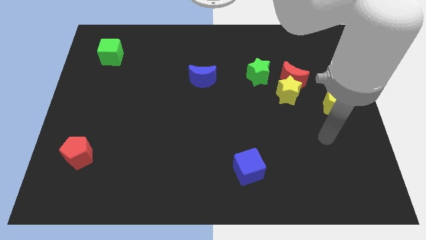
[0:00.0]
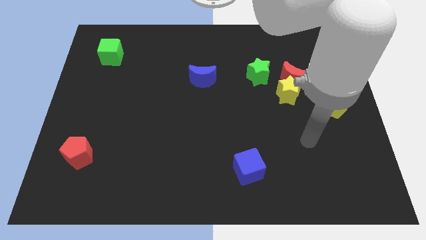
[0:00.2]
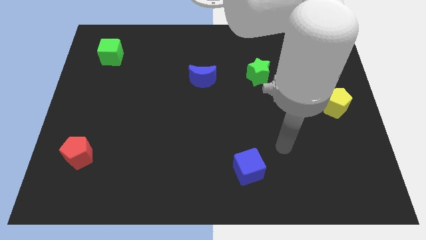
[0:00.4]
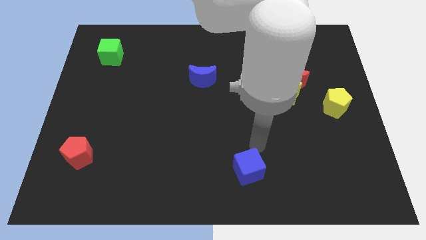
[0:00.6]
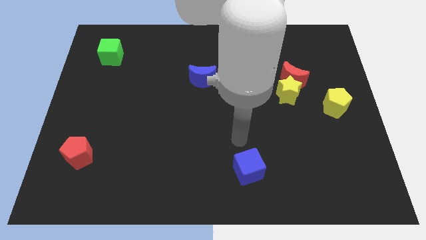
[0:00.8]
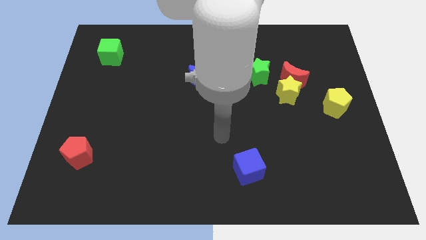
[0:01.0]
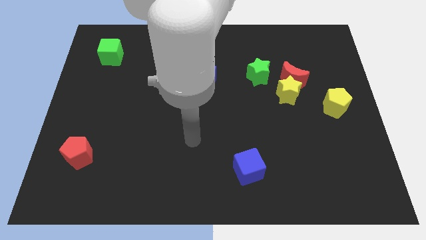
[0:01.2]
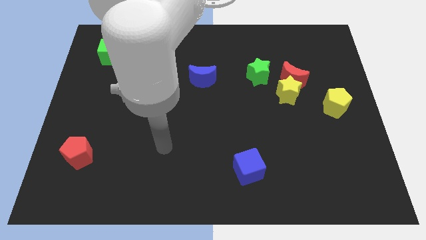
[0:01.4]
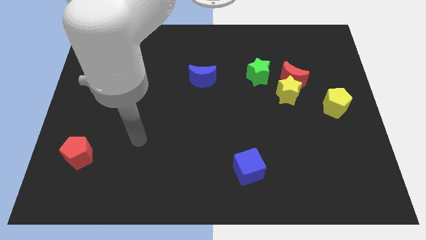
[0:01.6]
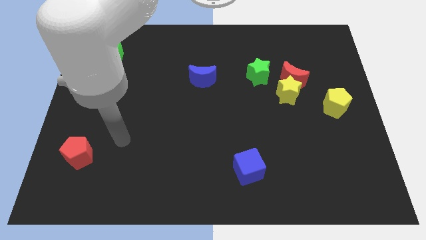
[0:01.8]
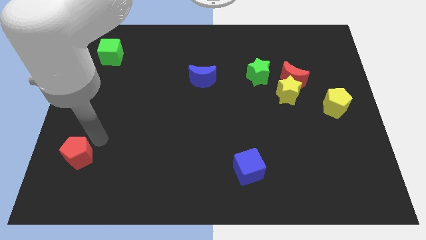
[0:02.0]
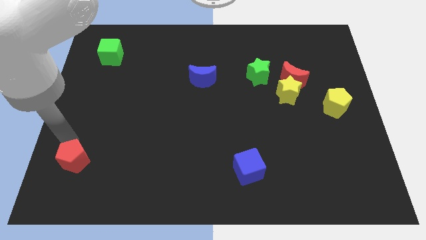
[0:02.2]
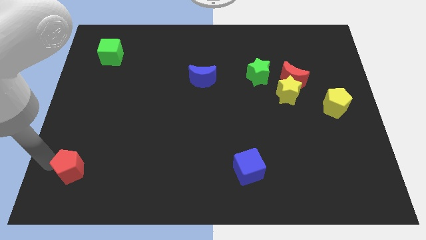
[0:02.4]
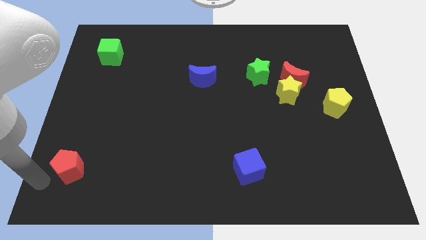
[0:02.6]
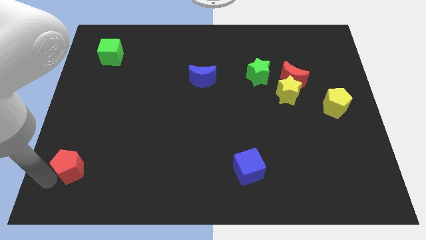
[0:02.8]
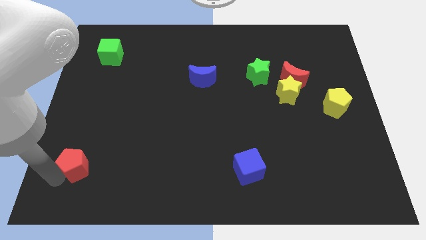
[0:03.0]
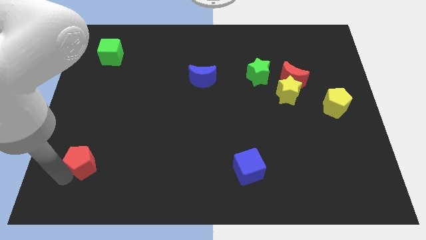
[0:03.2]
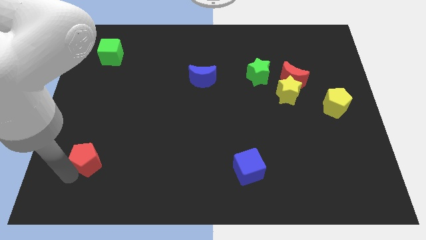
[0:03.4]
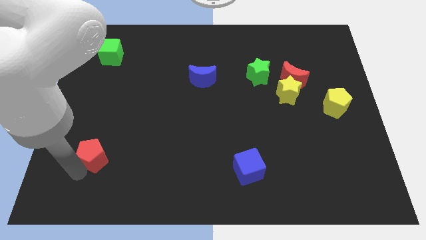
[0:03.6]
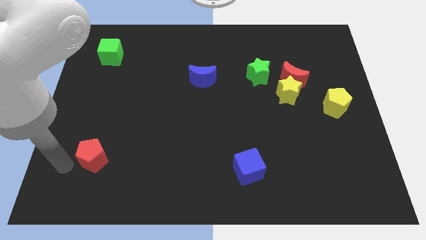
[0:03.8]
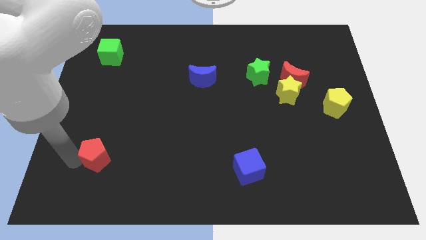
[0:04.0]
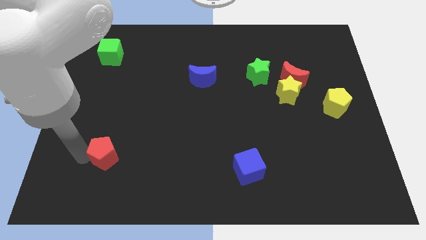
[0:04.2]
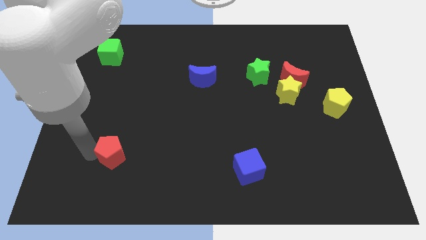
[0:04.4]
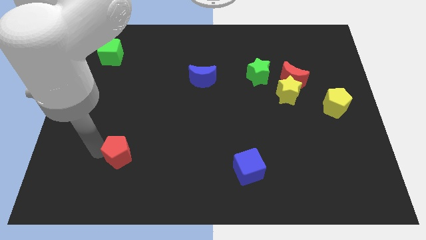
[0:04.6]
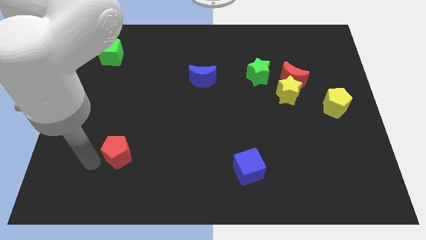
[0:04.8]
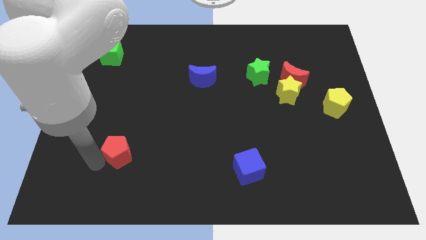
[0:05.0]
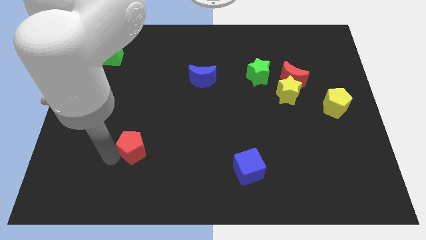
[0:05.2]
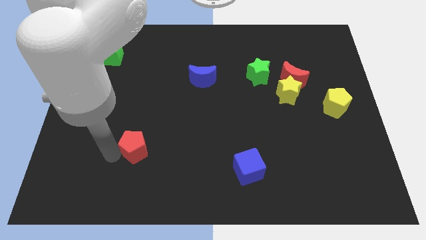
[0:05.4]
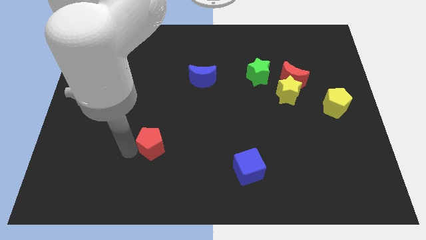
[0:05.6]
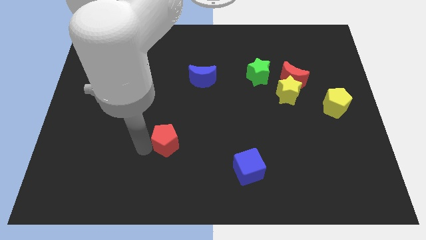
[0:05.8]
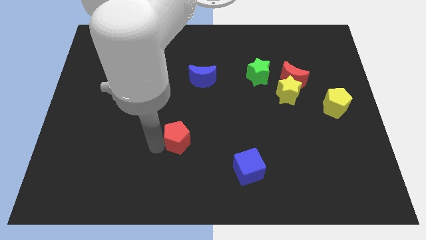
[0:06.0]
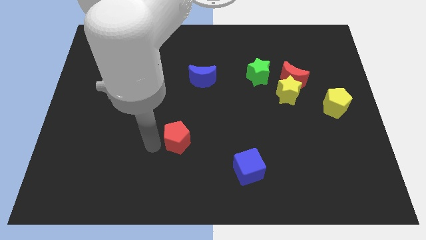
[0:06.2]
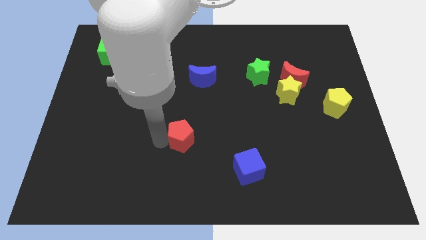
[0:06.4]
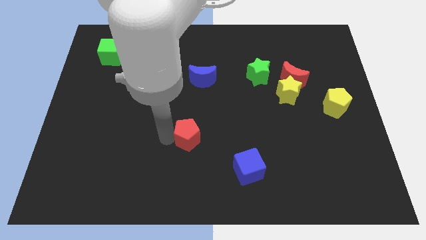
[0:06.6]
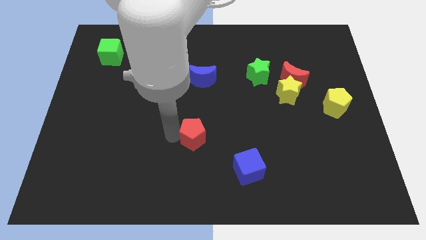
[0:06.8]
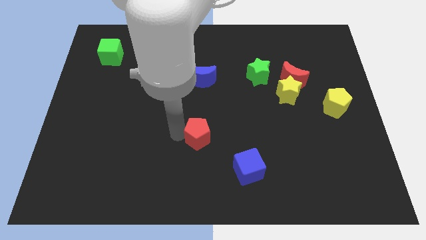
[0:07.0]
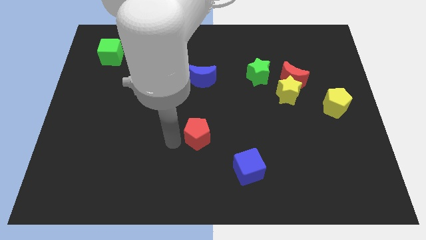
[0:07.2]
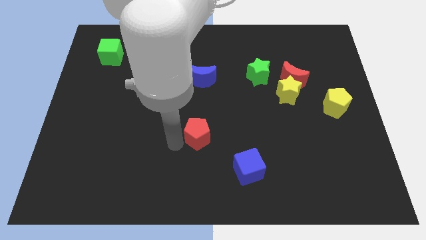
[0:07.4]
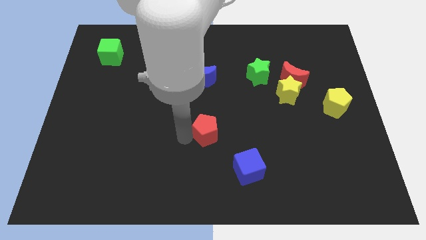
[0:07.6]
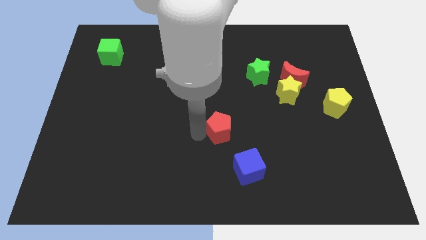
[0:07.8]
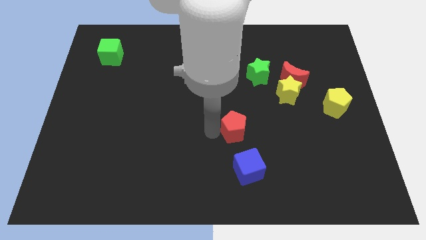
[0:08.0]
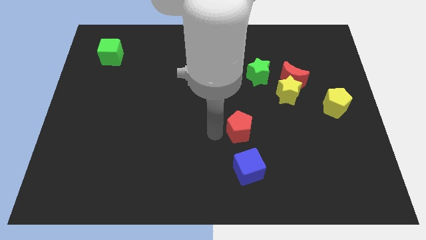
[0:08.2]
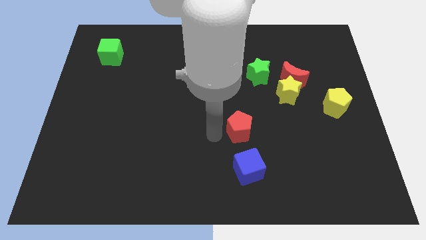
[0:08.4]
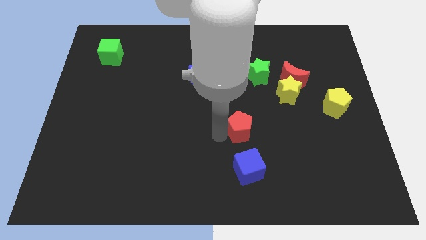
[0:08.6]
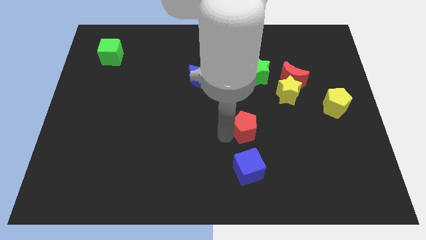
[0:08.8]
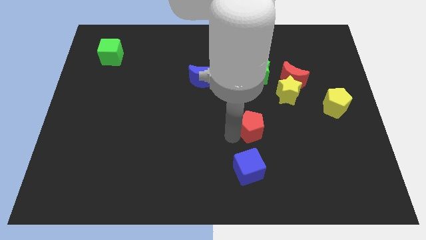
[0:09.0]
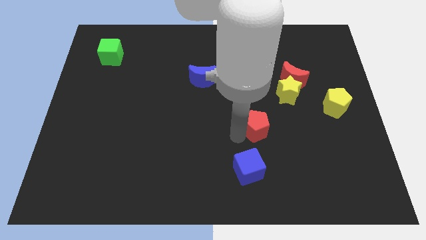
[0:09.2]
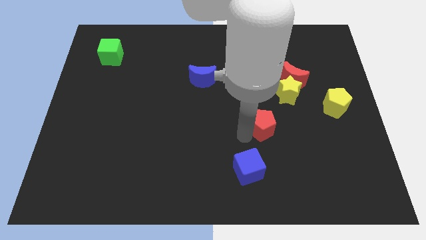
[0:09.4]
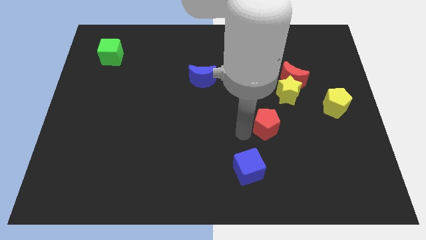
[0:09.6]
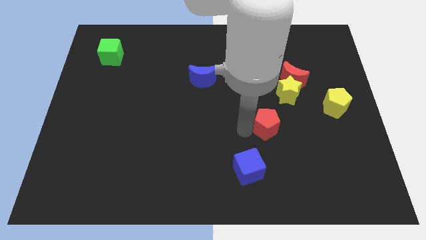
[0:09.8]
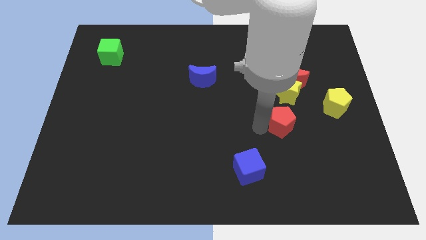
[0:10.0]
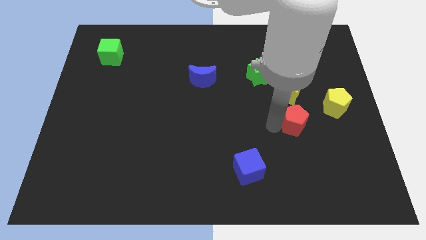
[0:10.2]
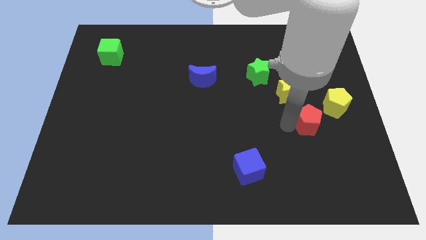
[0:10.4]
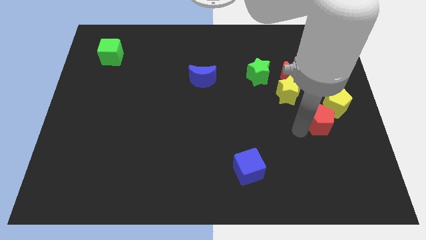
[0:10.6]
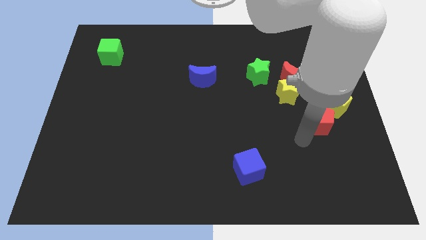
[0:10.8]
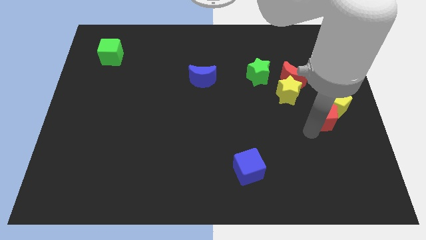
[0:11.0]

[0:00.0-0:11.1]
move the red pentagon next to the yellow pentagon

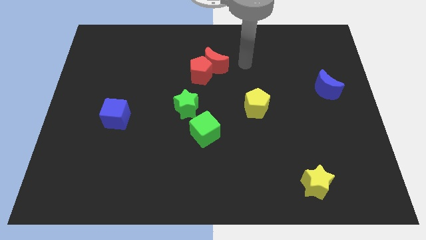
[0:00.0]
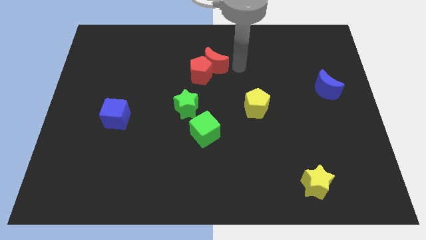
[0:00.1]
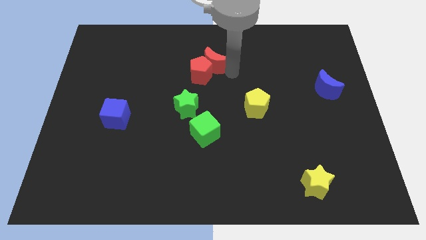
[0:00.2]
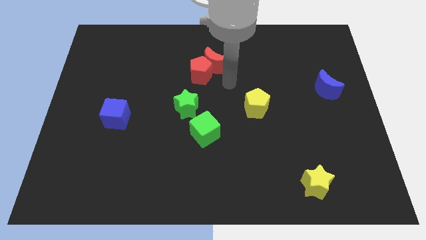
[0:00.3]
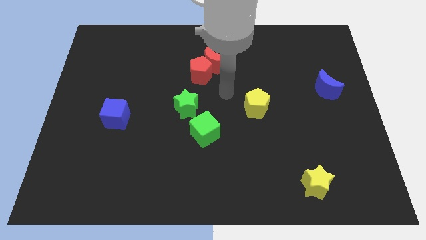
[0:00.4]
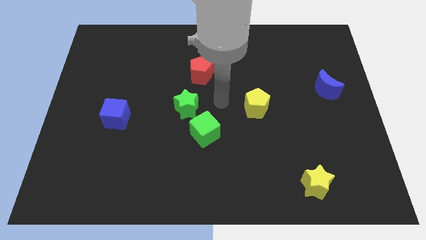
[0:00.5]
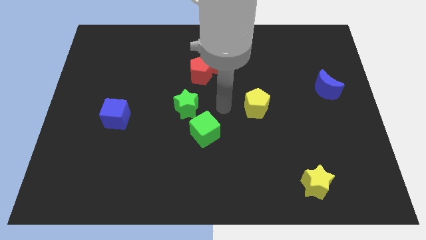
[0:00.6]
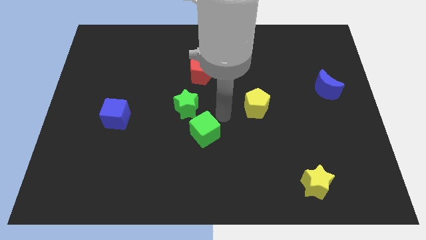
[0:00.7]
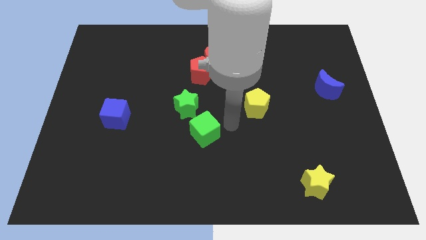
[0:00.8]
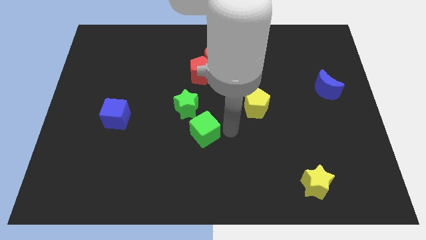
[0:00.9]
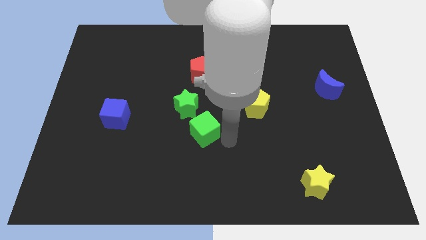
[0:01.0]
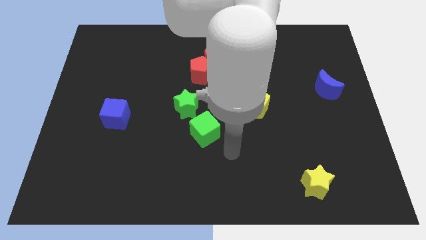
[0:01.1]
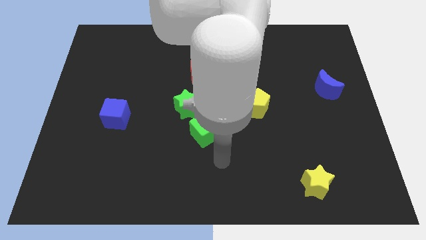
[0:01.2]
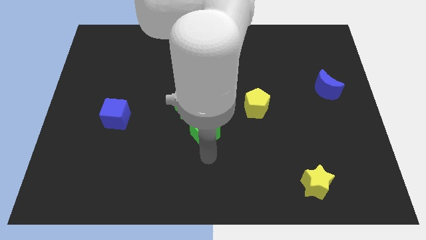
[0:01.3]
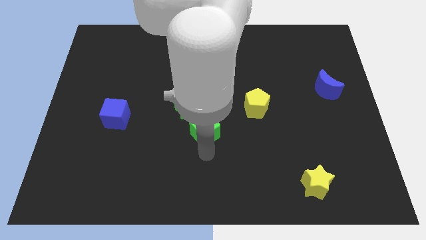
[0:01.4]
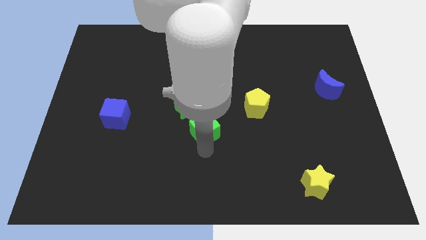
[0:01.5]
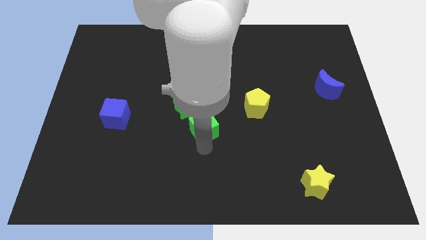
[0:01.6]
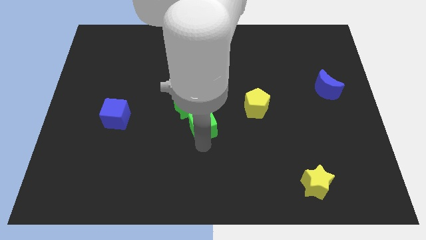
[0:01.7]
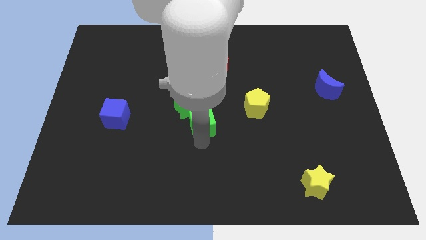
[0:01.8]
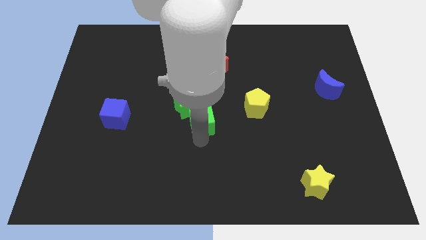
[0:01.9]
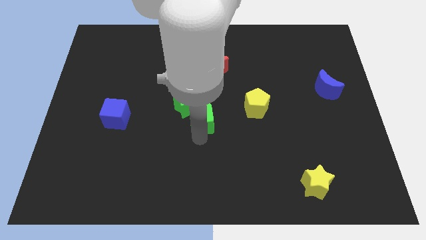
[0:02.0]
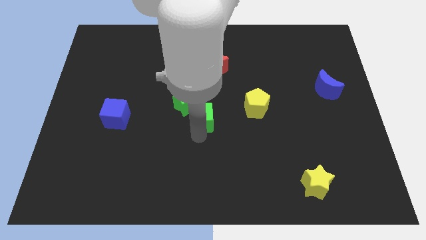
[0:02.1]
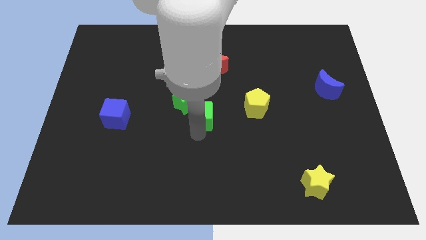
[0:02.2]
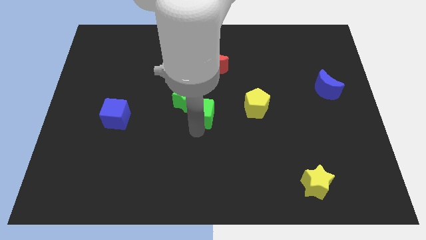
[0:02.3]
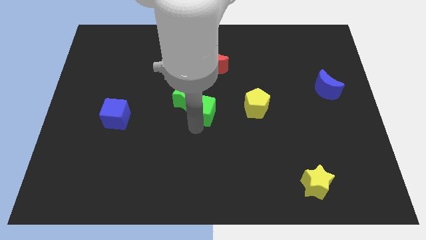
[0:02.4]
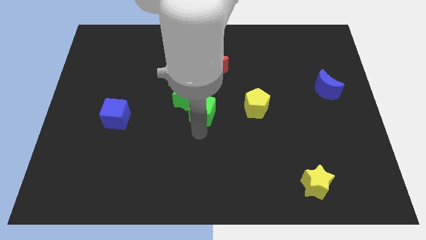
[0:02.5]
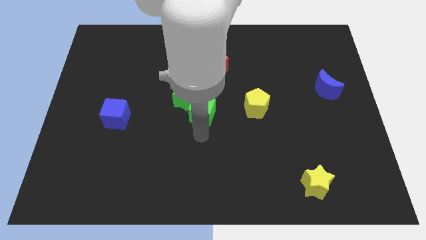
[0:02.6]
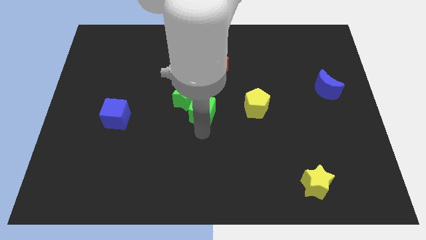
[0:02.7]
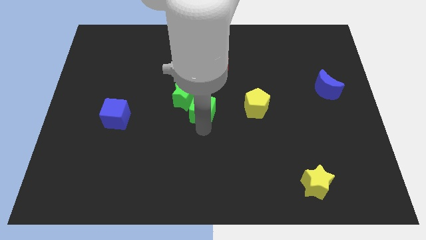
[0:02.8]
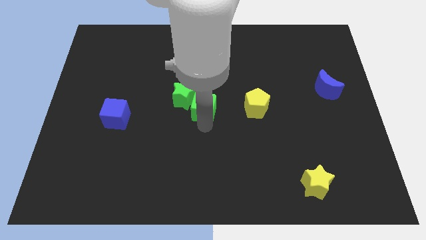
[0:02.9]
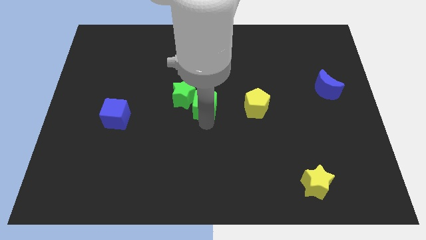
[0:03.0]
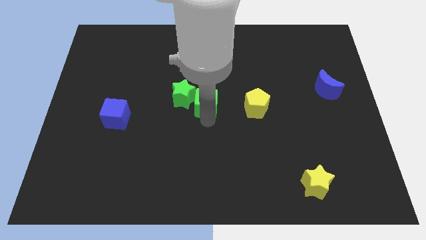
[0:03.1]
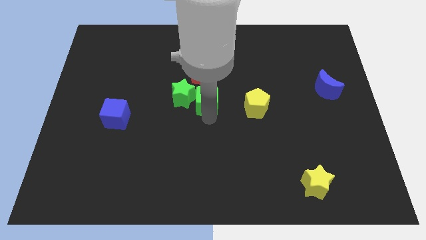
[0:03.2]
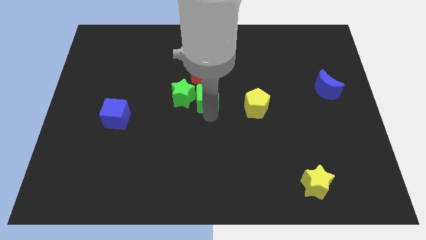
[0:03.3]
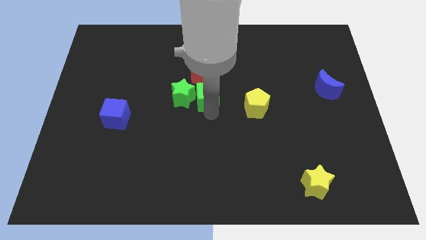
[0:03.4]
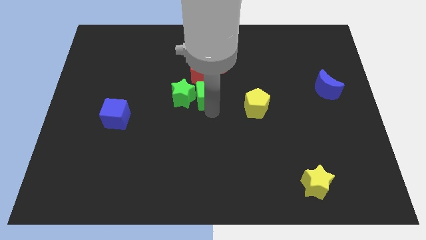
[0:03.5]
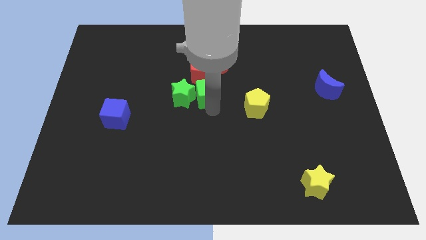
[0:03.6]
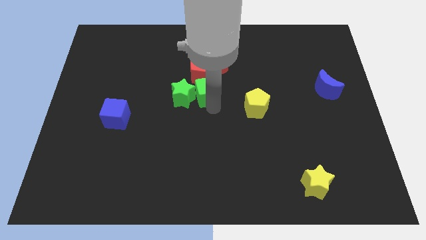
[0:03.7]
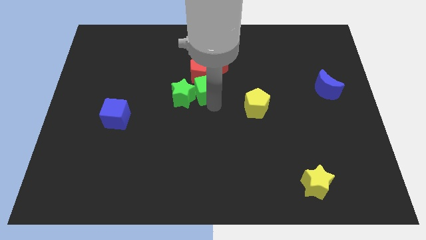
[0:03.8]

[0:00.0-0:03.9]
push the green cube to the red pentagon
